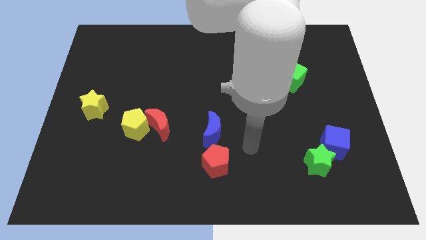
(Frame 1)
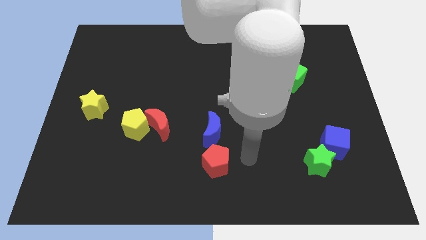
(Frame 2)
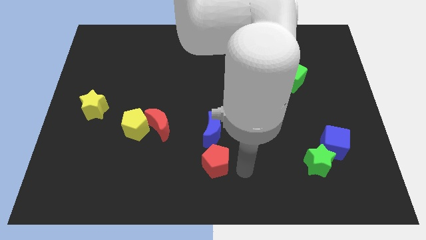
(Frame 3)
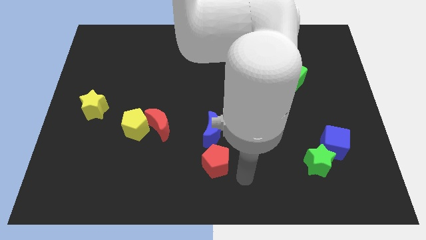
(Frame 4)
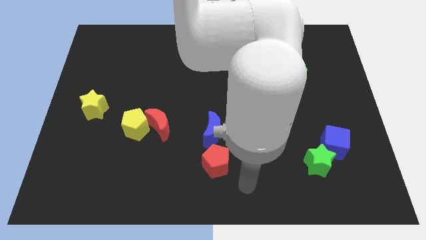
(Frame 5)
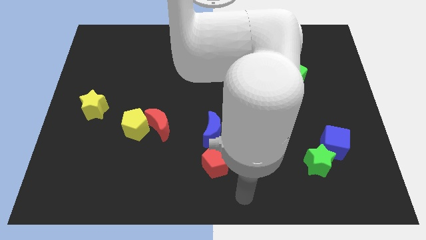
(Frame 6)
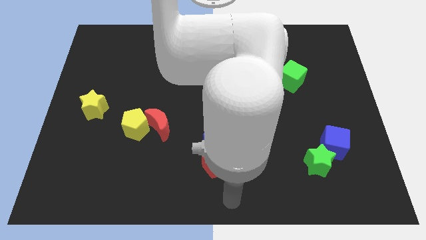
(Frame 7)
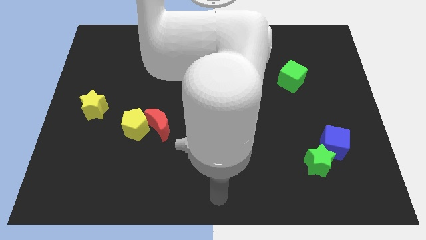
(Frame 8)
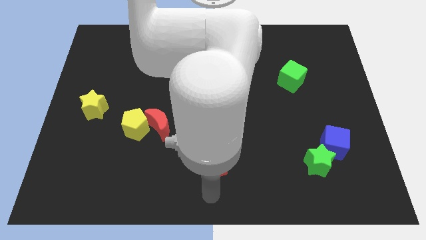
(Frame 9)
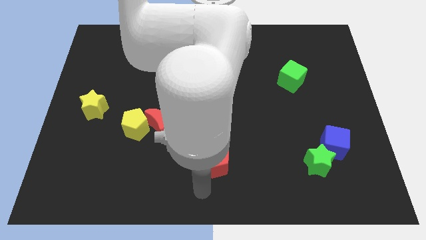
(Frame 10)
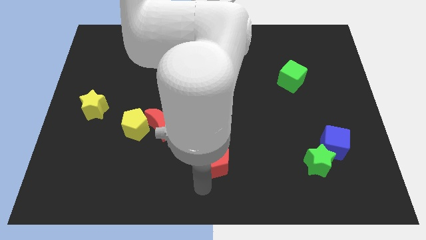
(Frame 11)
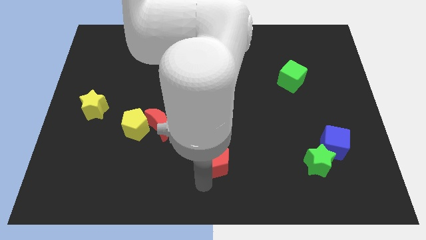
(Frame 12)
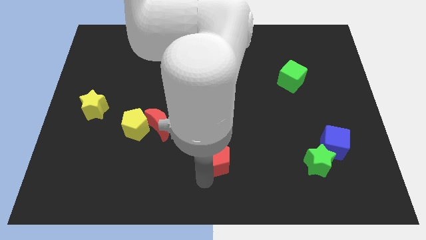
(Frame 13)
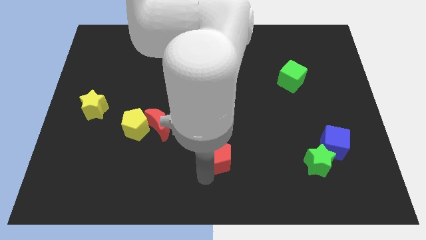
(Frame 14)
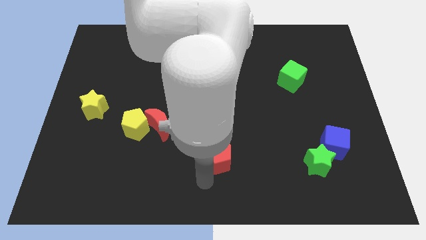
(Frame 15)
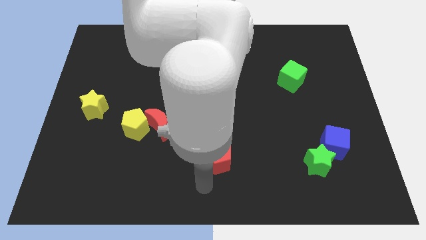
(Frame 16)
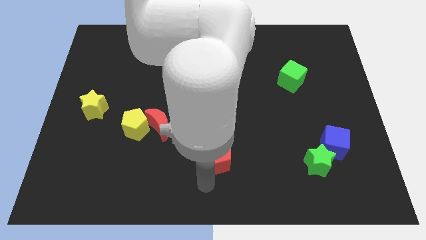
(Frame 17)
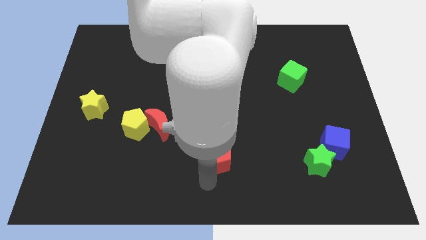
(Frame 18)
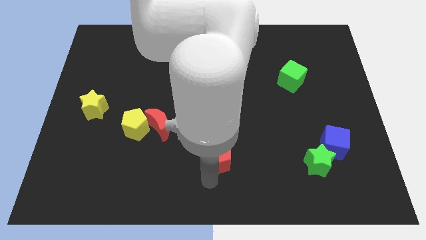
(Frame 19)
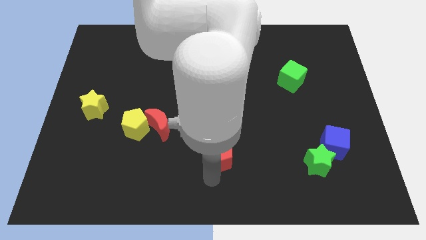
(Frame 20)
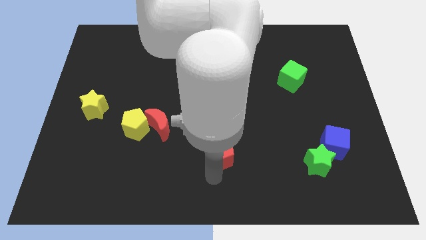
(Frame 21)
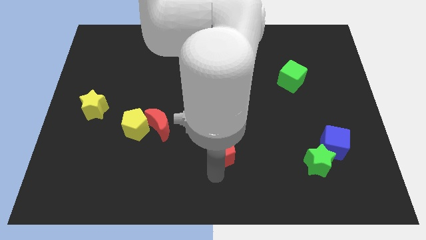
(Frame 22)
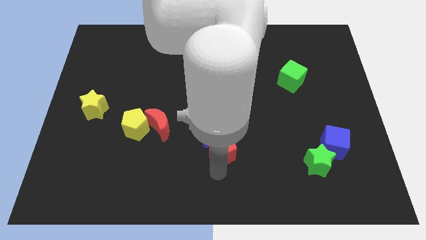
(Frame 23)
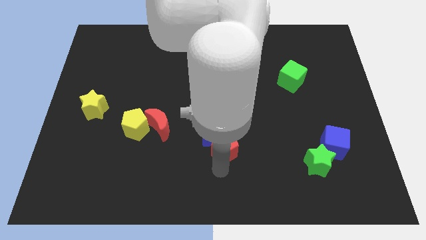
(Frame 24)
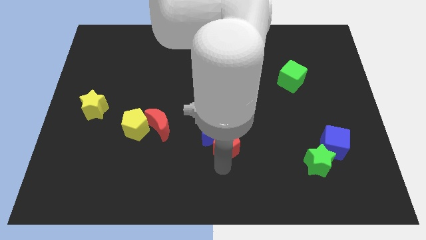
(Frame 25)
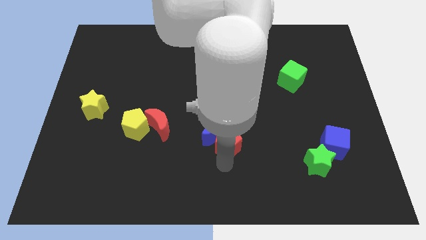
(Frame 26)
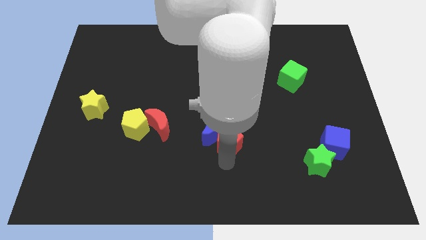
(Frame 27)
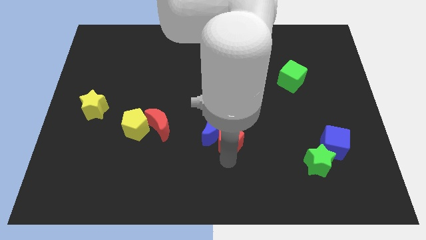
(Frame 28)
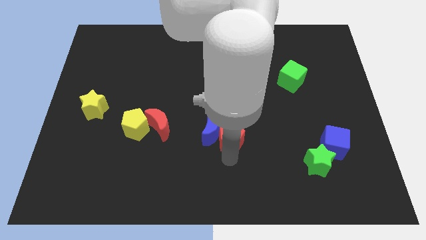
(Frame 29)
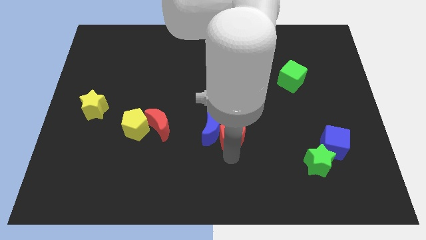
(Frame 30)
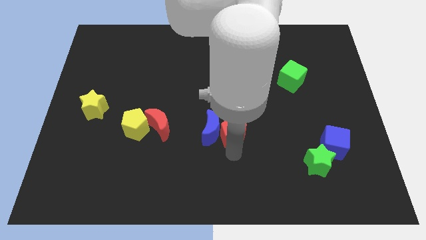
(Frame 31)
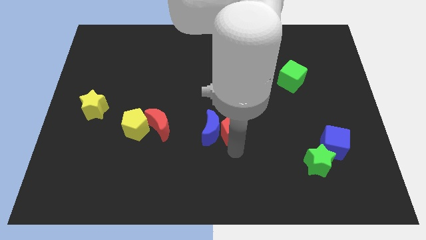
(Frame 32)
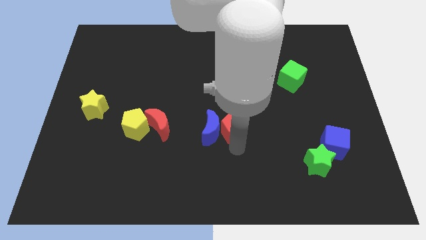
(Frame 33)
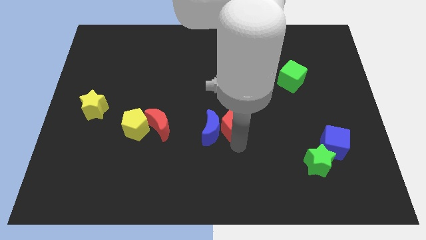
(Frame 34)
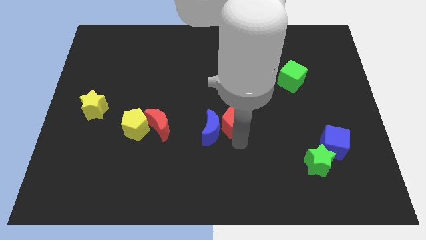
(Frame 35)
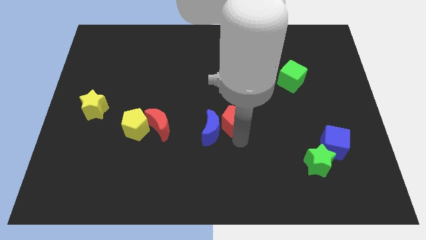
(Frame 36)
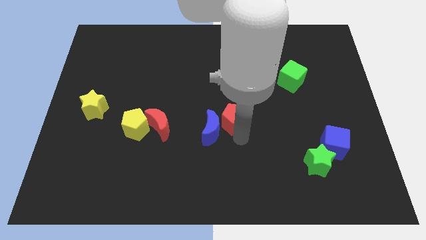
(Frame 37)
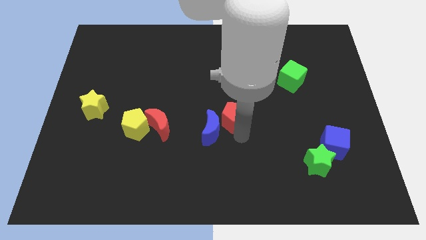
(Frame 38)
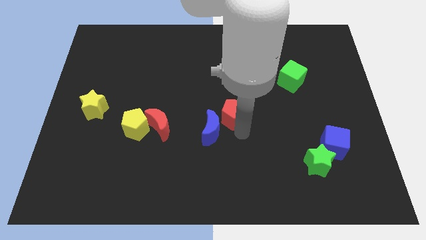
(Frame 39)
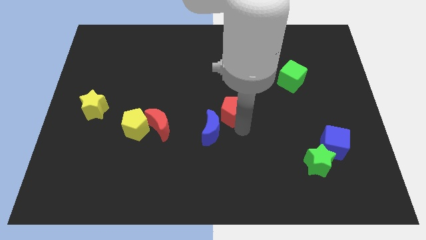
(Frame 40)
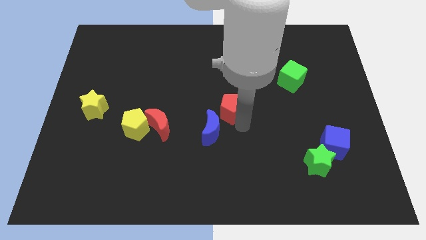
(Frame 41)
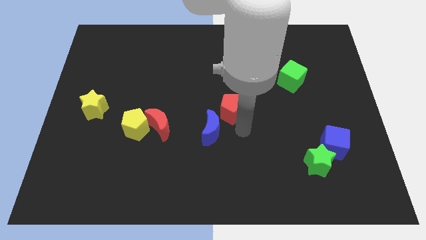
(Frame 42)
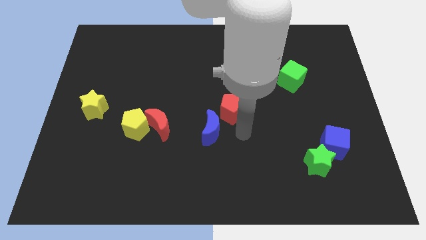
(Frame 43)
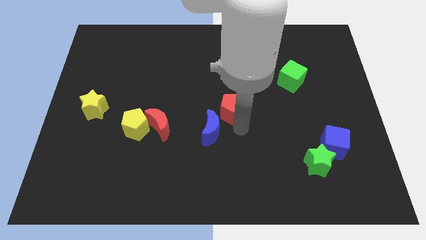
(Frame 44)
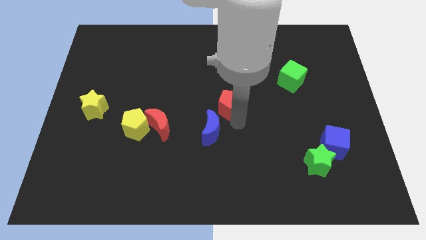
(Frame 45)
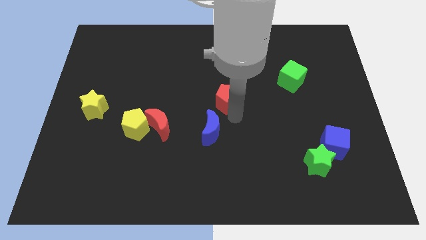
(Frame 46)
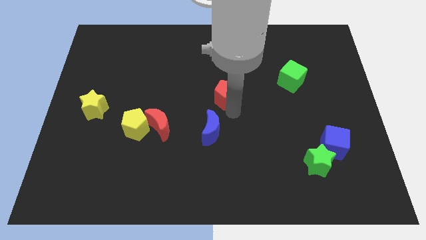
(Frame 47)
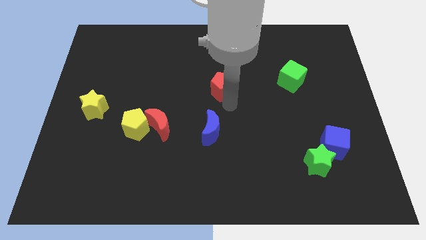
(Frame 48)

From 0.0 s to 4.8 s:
slide the red pentagon upwards

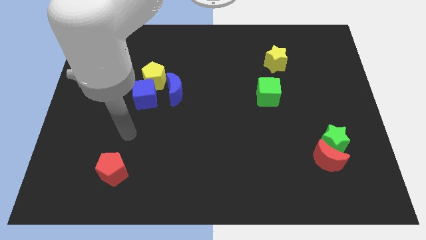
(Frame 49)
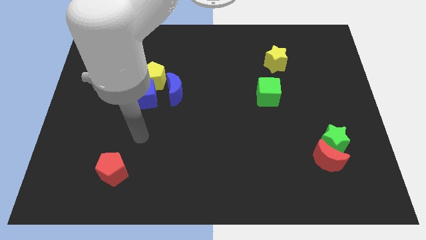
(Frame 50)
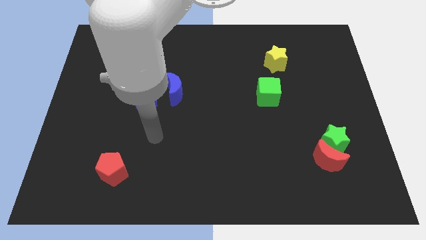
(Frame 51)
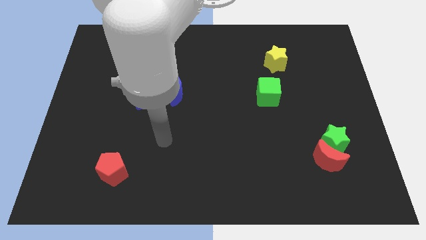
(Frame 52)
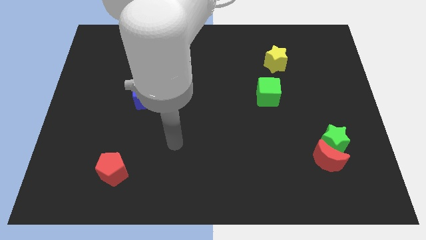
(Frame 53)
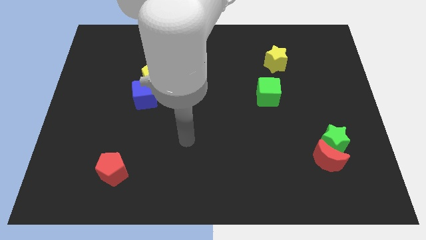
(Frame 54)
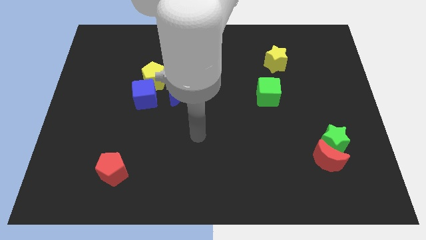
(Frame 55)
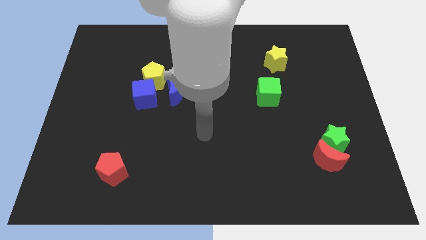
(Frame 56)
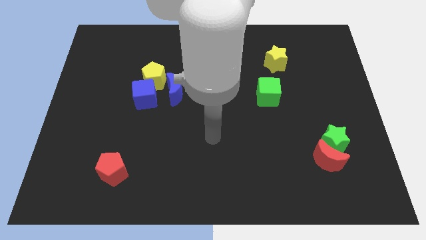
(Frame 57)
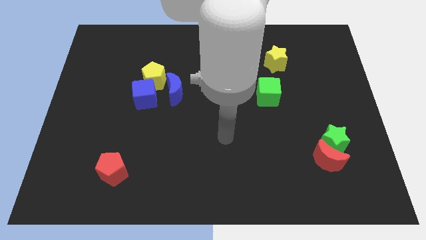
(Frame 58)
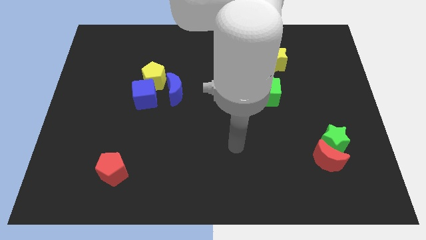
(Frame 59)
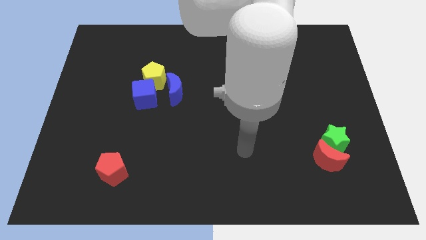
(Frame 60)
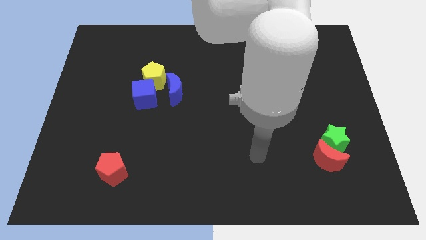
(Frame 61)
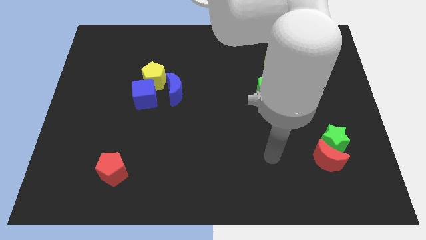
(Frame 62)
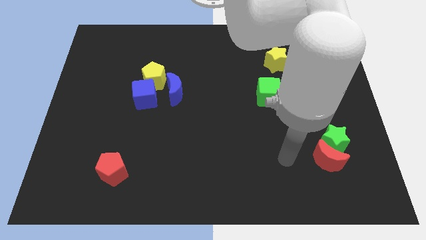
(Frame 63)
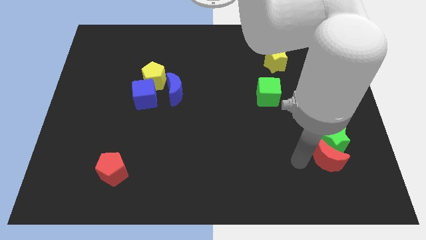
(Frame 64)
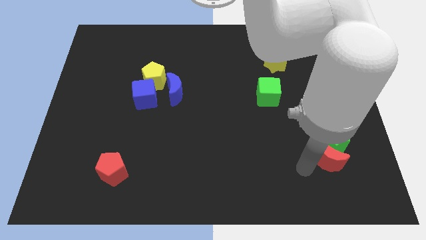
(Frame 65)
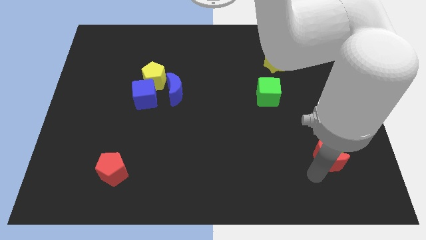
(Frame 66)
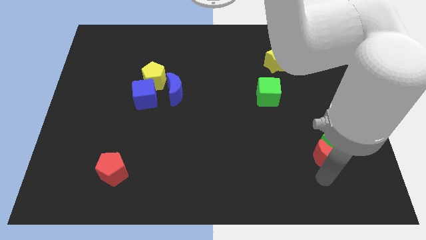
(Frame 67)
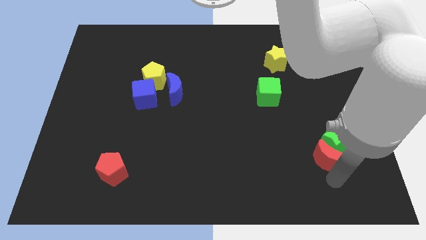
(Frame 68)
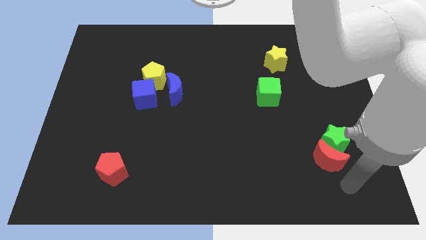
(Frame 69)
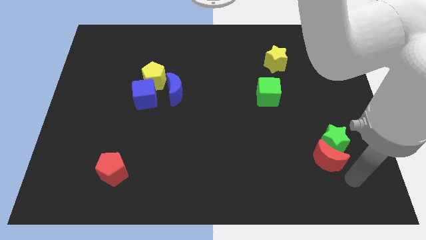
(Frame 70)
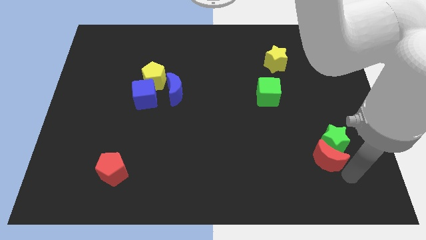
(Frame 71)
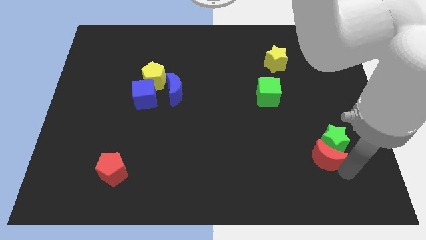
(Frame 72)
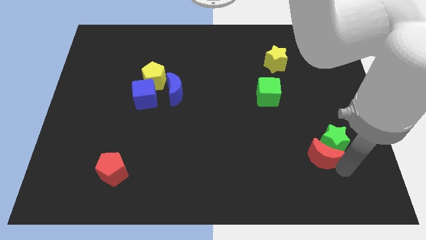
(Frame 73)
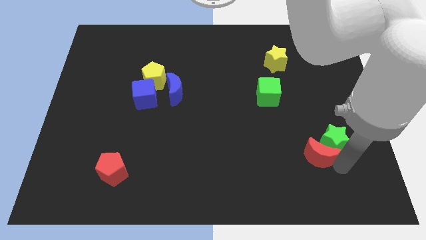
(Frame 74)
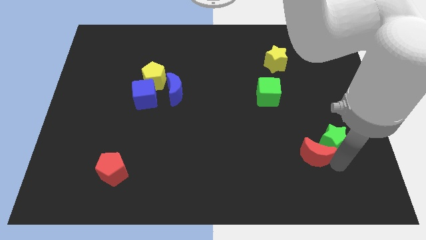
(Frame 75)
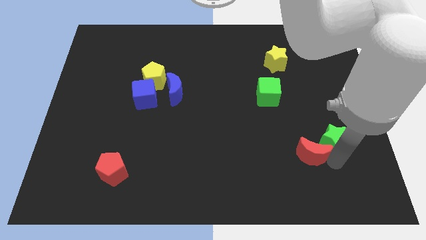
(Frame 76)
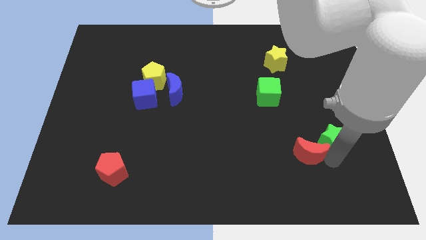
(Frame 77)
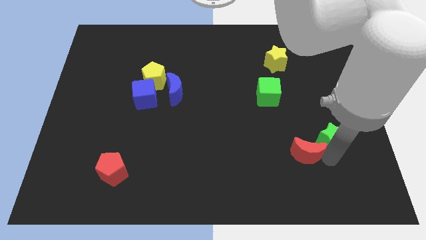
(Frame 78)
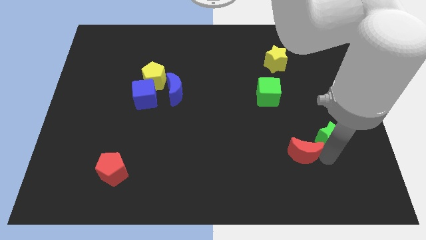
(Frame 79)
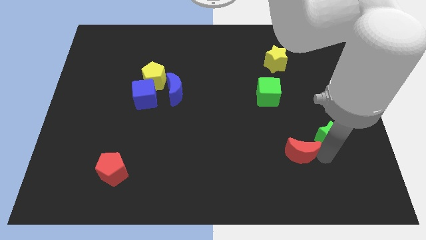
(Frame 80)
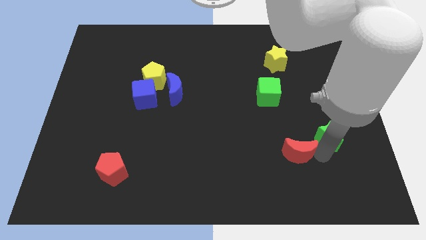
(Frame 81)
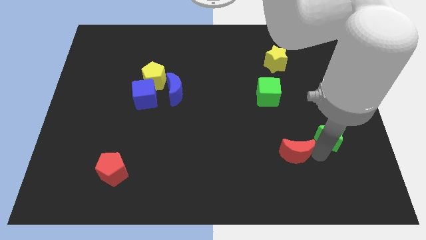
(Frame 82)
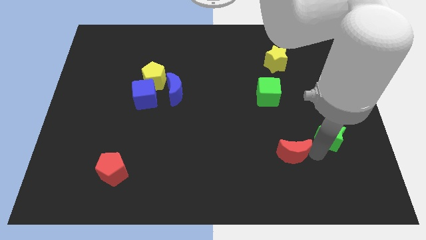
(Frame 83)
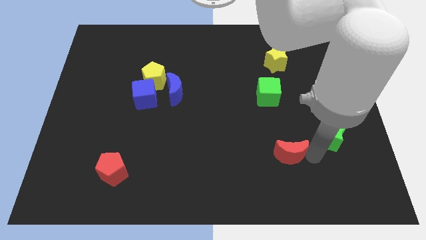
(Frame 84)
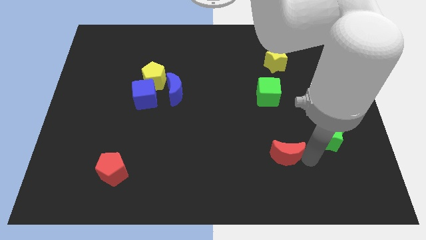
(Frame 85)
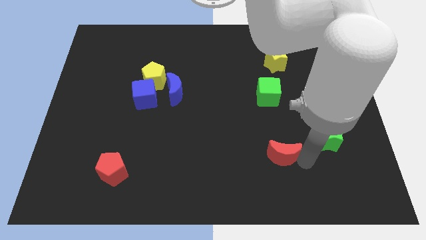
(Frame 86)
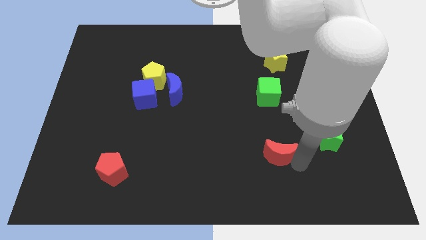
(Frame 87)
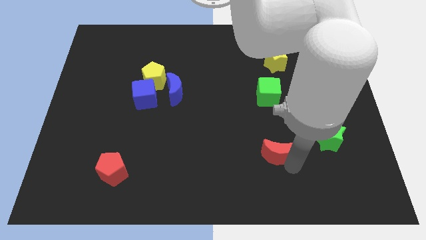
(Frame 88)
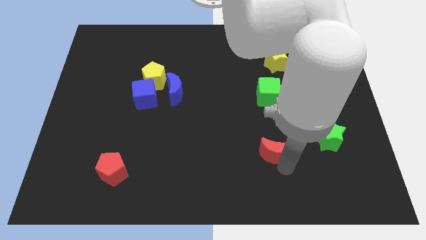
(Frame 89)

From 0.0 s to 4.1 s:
slightly push the red moon up and left
